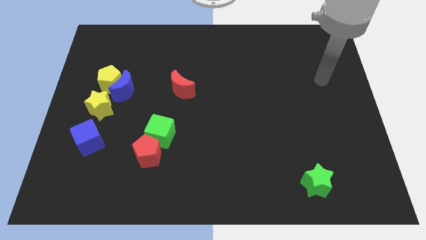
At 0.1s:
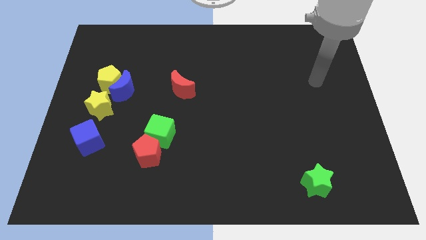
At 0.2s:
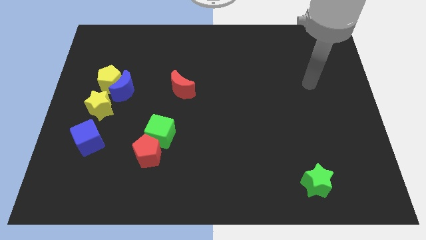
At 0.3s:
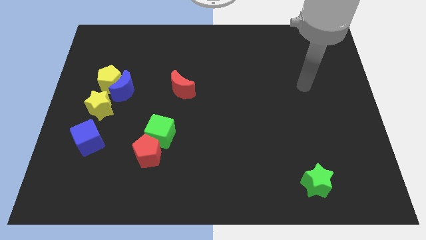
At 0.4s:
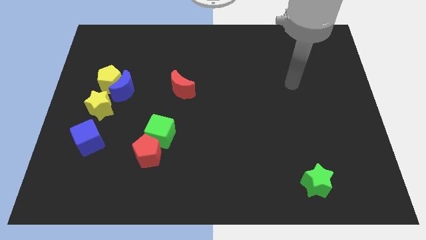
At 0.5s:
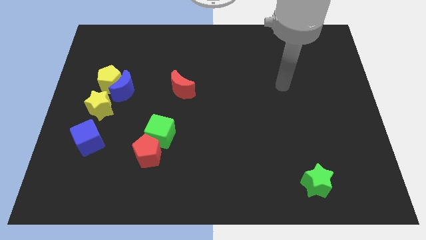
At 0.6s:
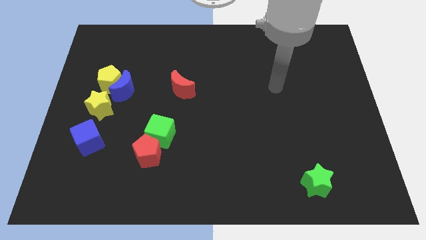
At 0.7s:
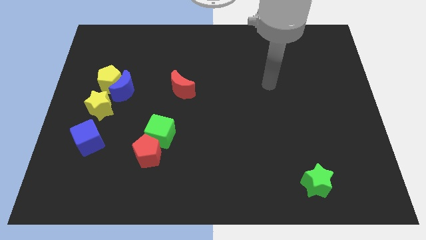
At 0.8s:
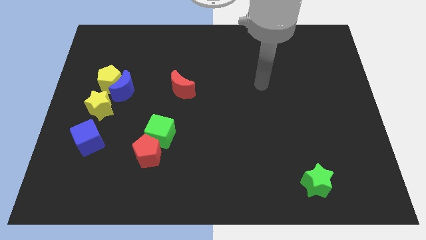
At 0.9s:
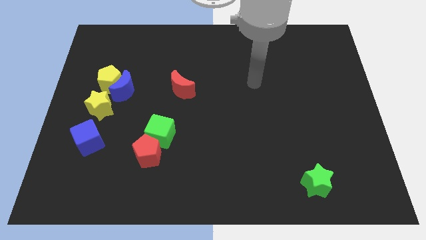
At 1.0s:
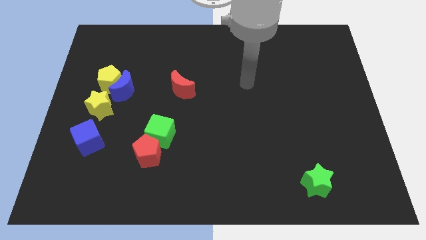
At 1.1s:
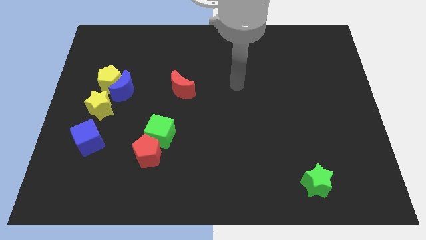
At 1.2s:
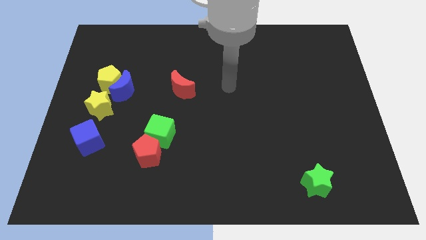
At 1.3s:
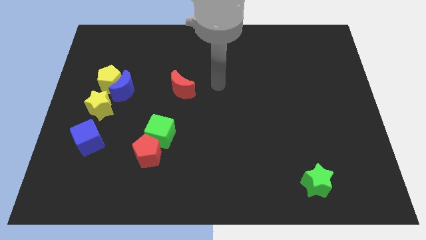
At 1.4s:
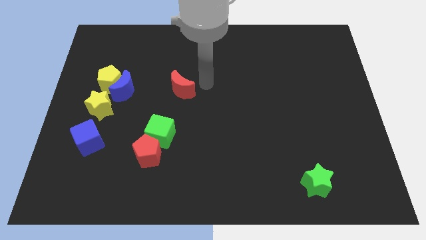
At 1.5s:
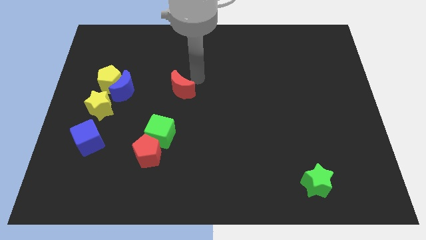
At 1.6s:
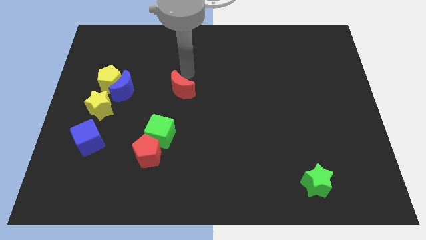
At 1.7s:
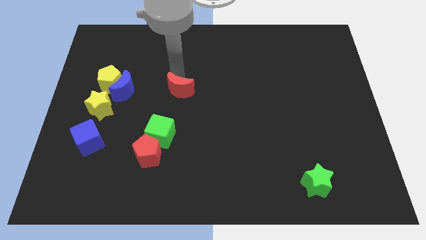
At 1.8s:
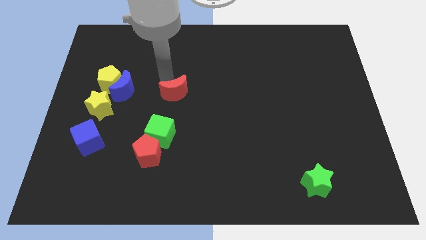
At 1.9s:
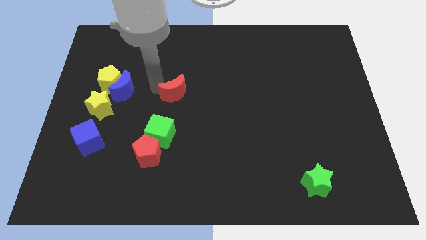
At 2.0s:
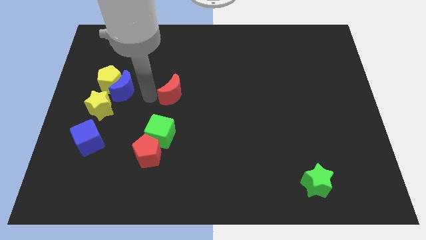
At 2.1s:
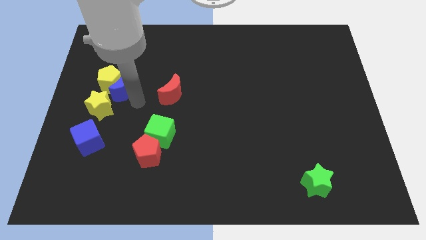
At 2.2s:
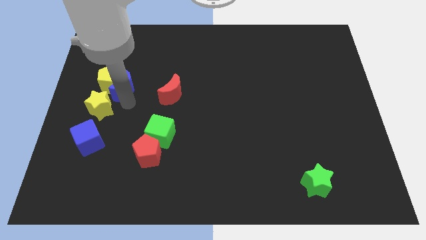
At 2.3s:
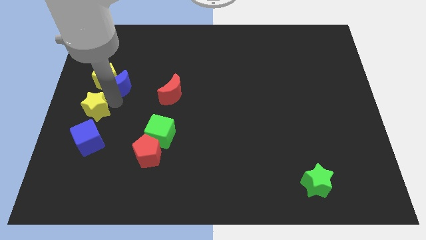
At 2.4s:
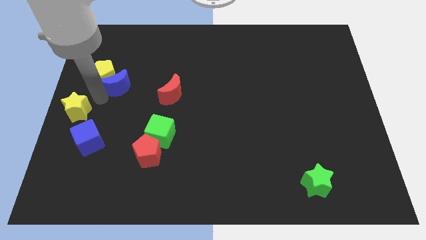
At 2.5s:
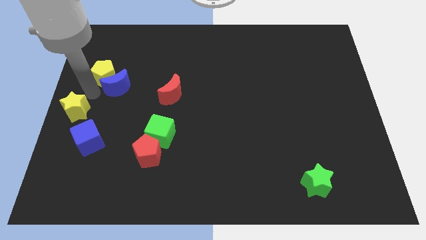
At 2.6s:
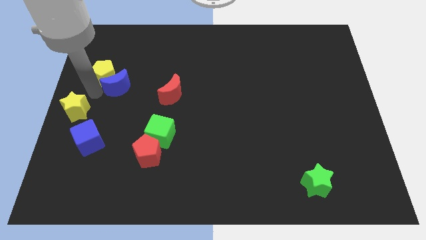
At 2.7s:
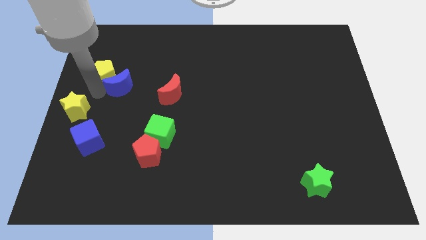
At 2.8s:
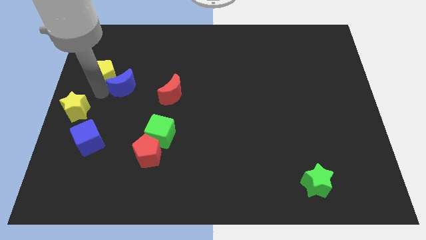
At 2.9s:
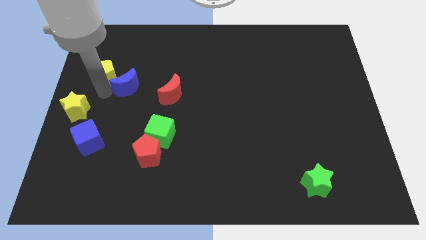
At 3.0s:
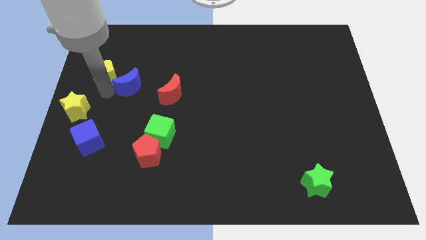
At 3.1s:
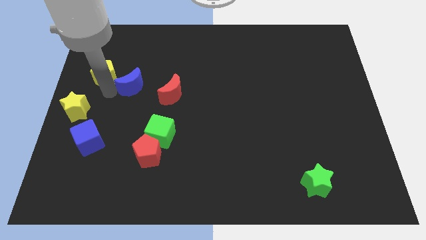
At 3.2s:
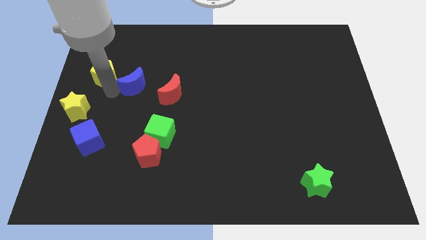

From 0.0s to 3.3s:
pull the blue moon apart from the yellow pentagon and yellow star

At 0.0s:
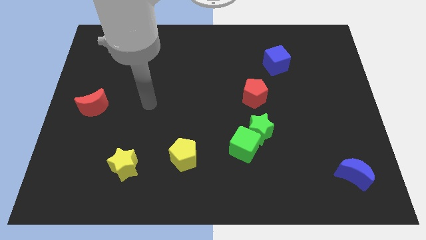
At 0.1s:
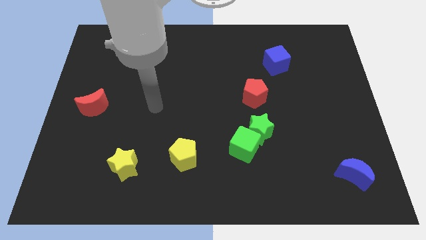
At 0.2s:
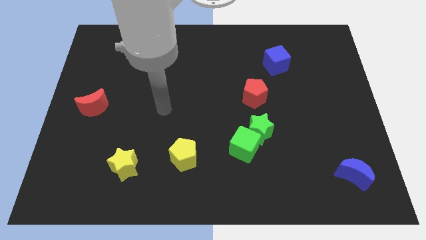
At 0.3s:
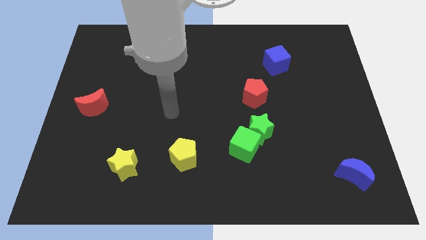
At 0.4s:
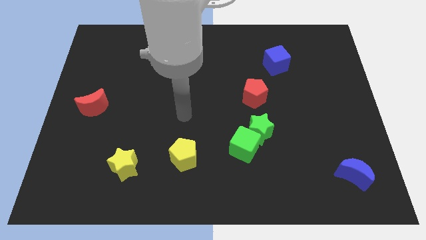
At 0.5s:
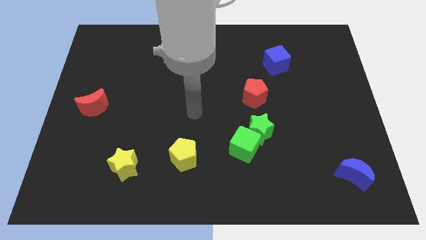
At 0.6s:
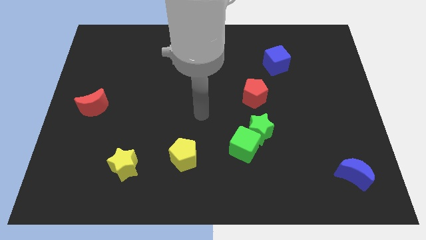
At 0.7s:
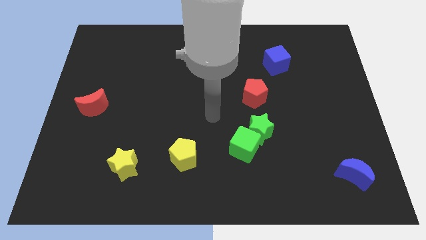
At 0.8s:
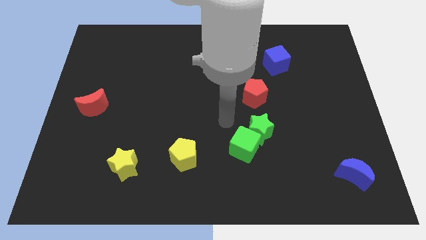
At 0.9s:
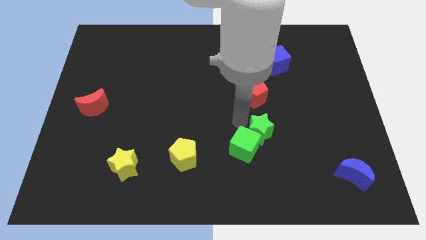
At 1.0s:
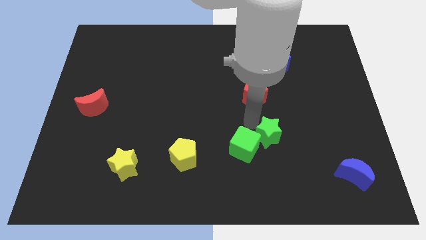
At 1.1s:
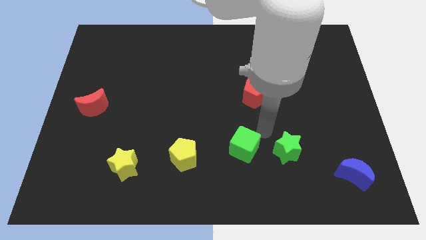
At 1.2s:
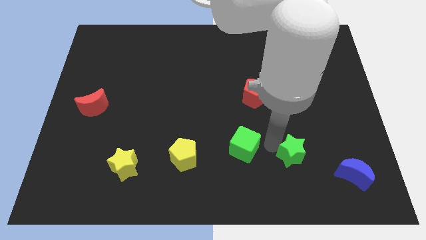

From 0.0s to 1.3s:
move the green cube away from the green star

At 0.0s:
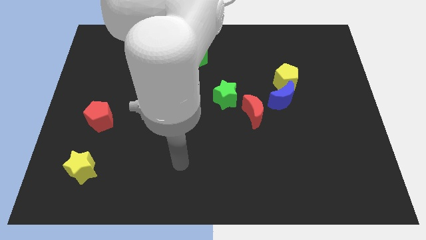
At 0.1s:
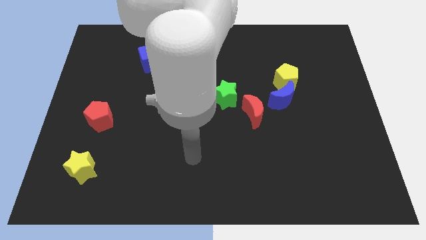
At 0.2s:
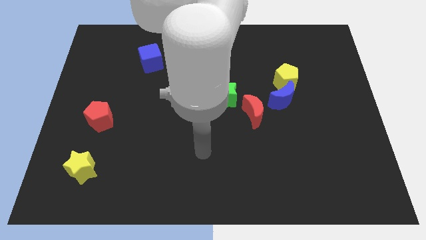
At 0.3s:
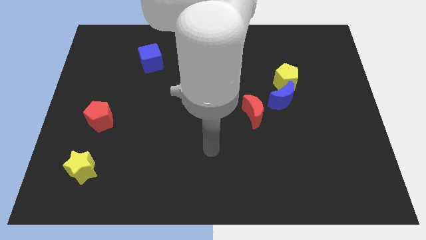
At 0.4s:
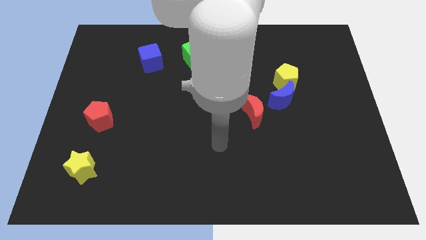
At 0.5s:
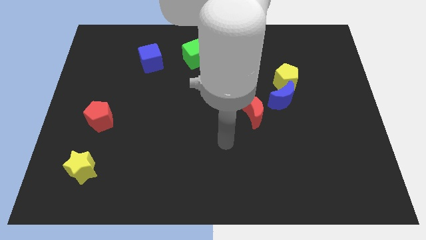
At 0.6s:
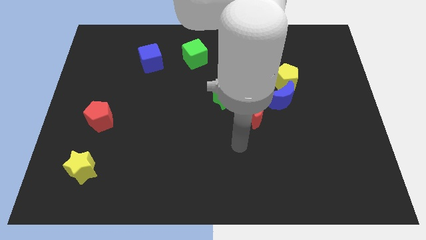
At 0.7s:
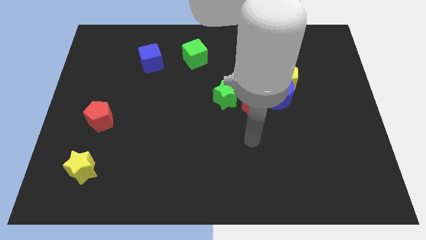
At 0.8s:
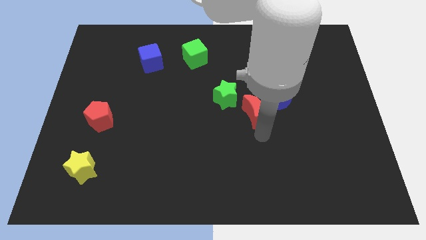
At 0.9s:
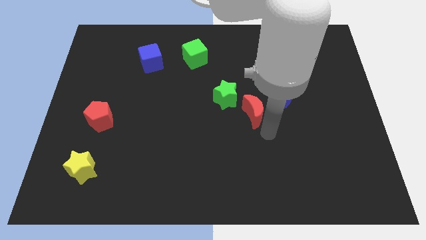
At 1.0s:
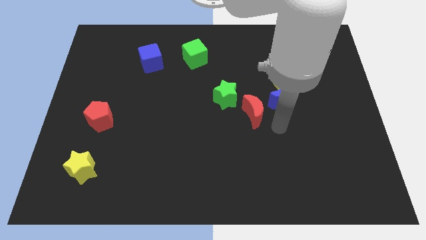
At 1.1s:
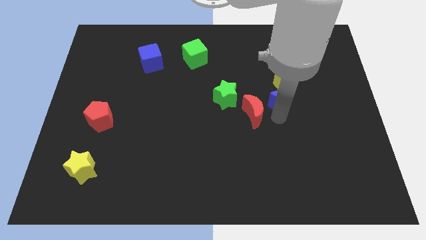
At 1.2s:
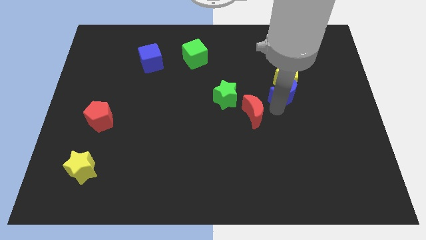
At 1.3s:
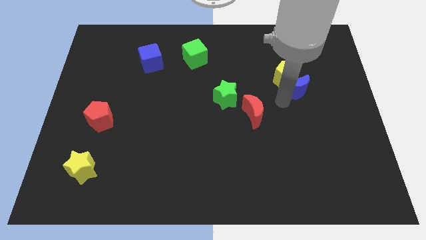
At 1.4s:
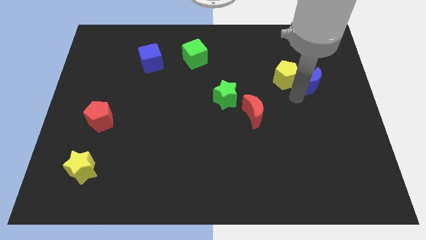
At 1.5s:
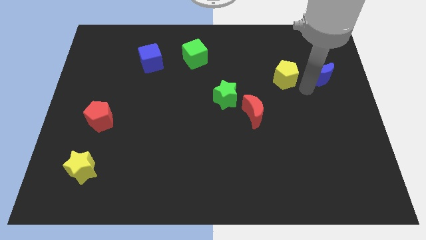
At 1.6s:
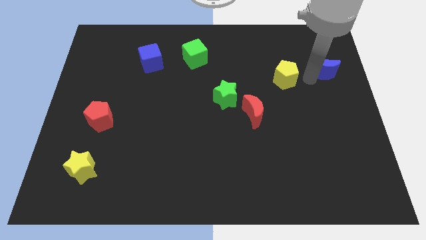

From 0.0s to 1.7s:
move the yellow pentagon away from the blue moon

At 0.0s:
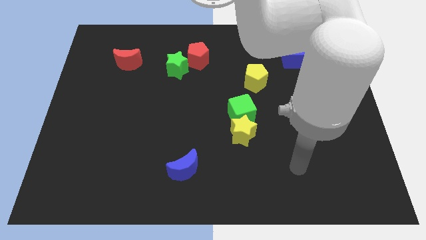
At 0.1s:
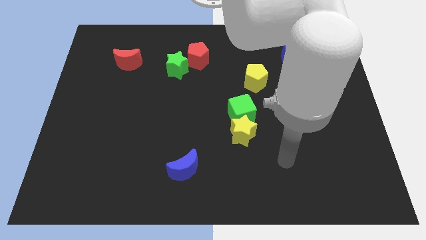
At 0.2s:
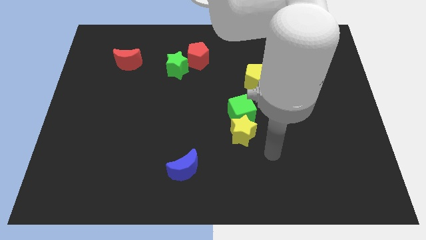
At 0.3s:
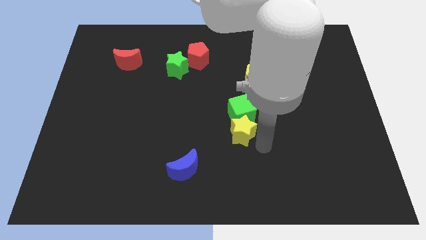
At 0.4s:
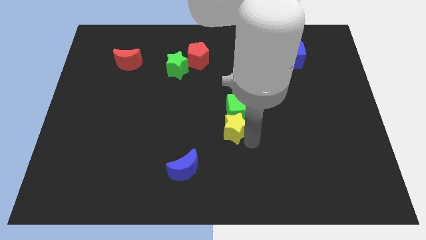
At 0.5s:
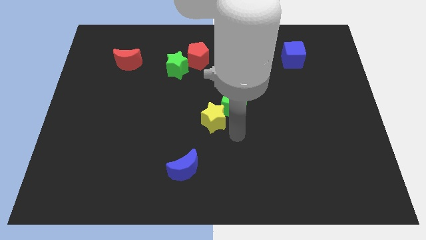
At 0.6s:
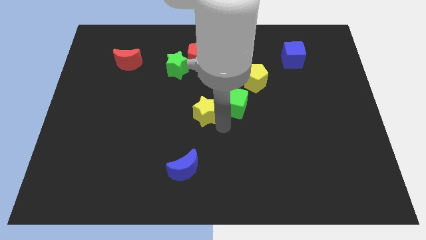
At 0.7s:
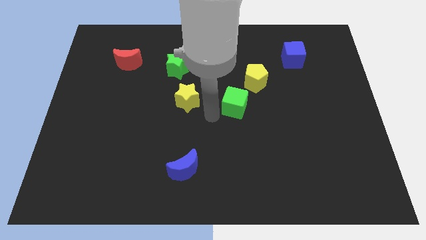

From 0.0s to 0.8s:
pull the green cube apart from the yellow star

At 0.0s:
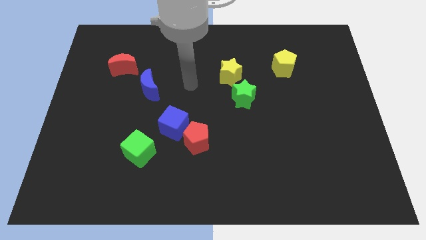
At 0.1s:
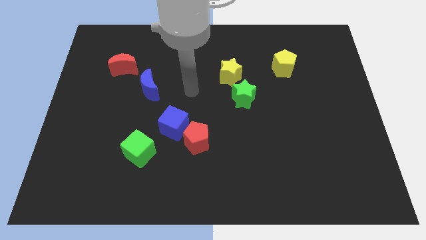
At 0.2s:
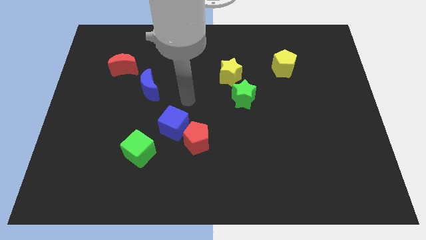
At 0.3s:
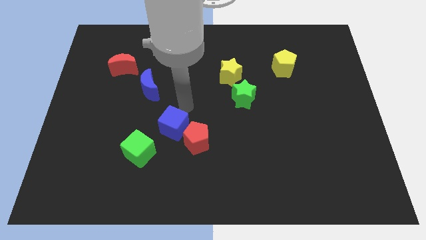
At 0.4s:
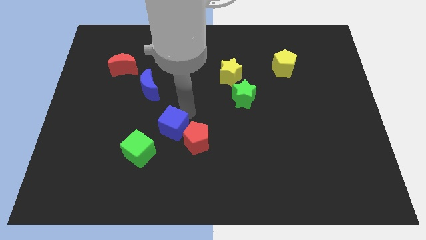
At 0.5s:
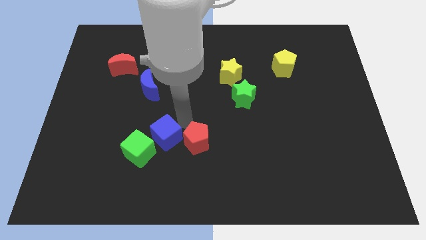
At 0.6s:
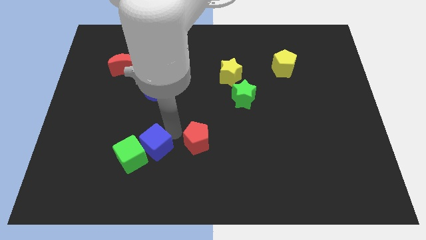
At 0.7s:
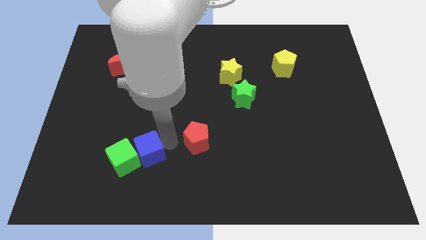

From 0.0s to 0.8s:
pull the red pentagon apart from the blue cube

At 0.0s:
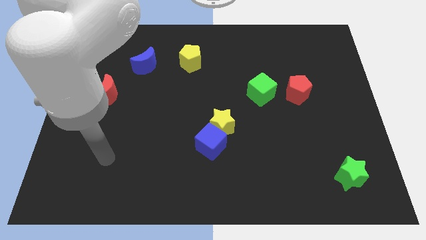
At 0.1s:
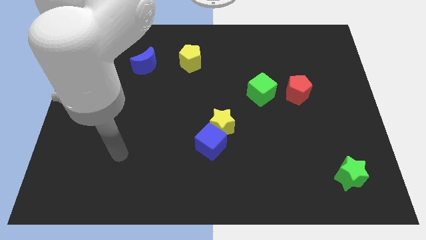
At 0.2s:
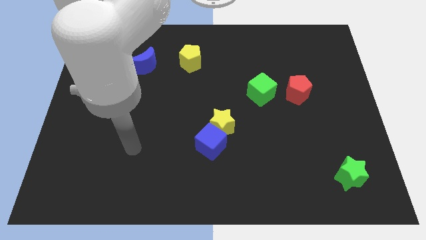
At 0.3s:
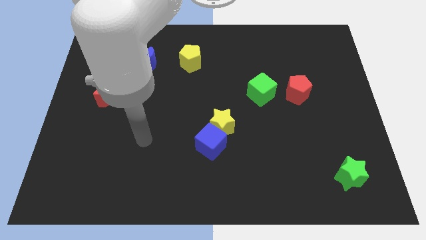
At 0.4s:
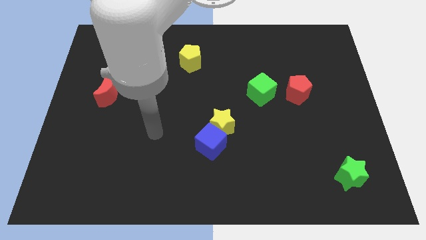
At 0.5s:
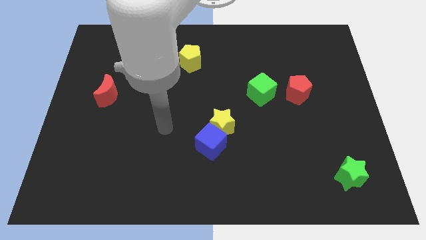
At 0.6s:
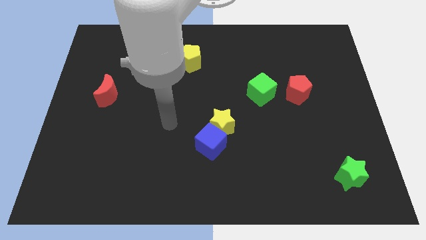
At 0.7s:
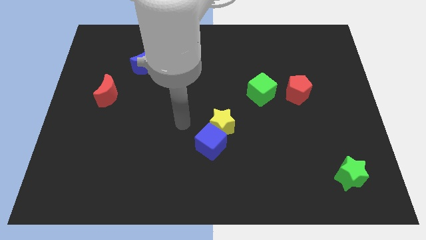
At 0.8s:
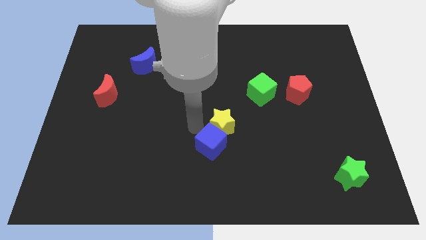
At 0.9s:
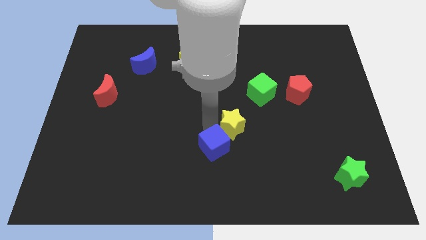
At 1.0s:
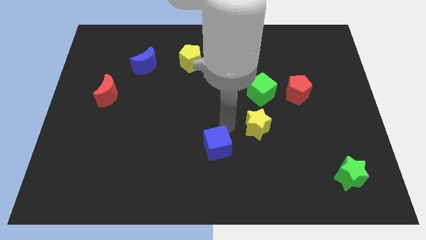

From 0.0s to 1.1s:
pull the blue cube apart from the yellow star

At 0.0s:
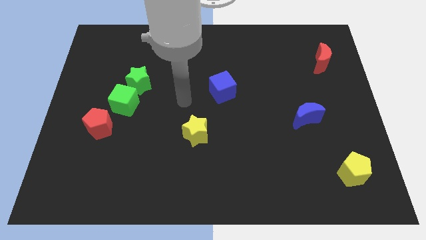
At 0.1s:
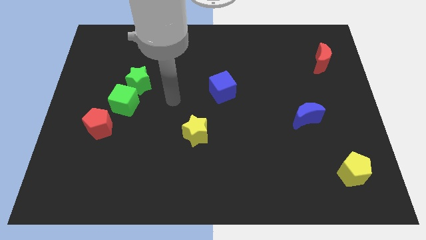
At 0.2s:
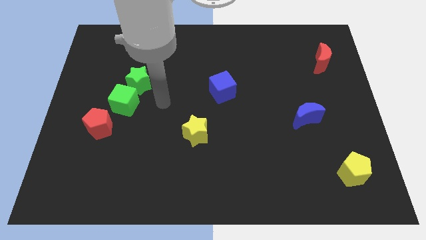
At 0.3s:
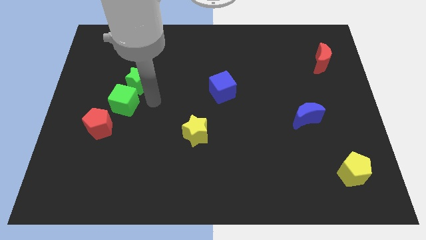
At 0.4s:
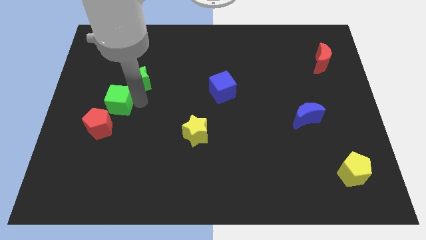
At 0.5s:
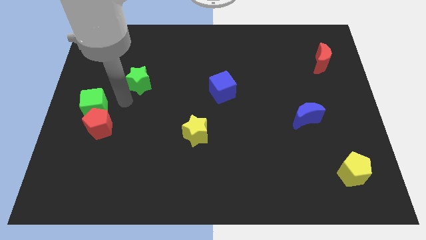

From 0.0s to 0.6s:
move the green star away from the green cube
